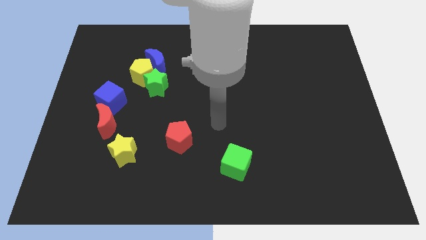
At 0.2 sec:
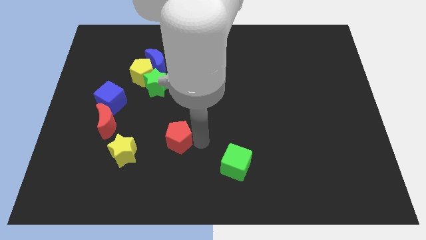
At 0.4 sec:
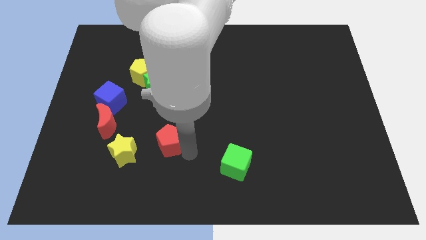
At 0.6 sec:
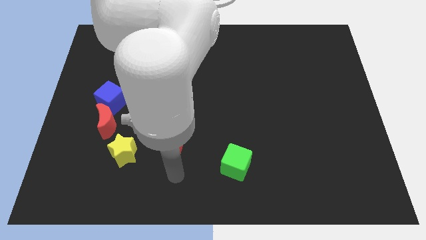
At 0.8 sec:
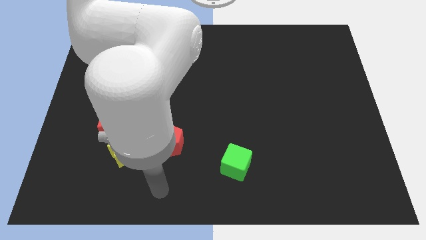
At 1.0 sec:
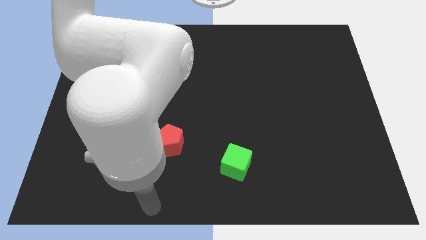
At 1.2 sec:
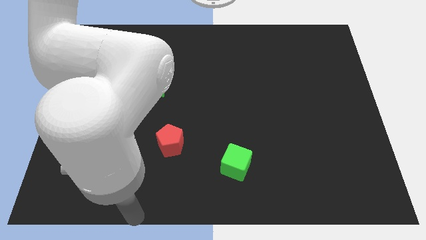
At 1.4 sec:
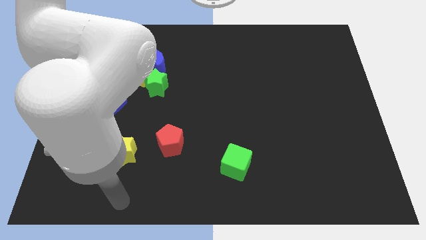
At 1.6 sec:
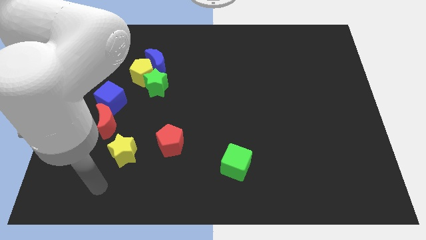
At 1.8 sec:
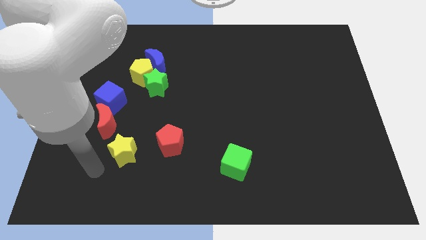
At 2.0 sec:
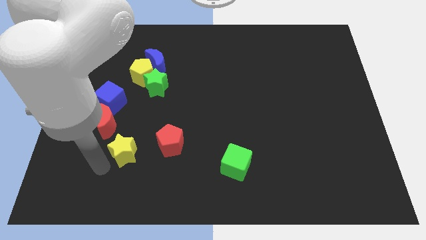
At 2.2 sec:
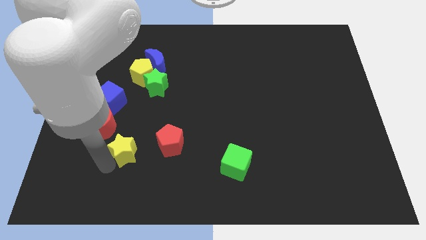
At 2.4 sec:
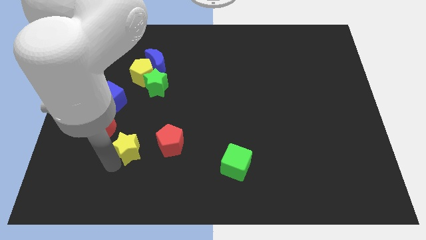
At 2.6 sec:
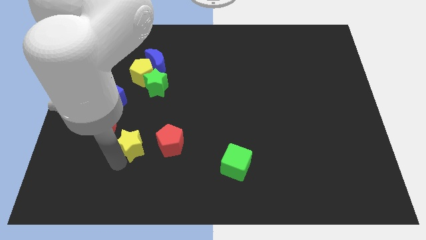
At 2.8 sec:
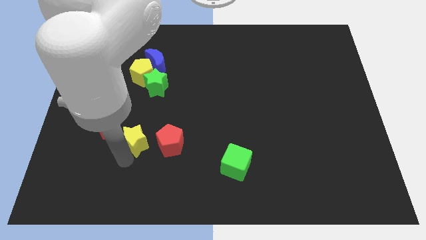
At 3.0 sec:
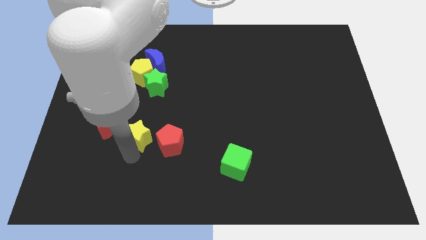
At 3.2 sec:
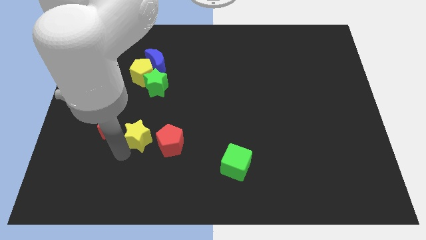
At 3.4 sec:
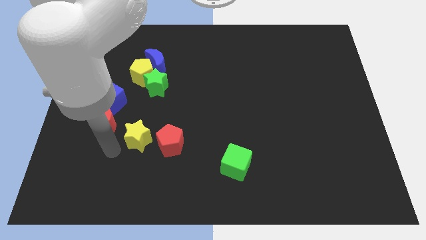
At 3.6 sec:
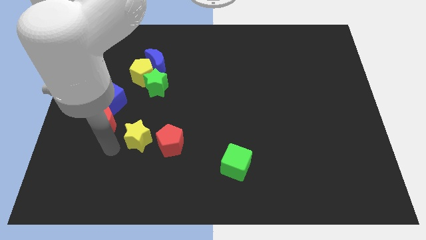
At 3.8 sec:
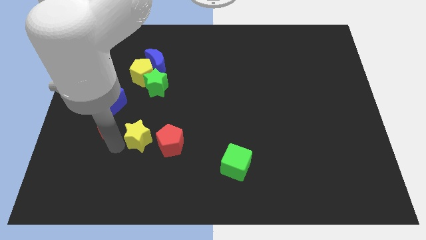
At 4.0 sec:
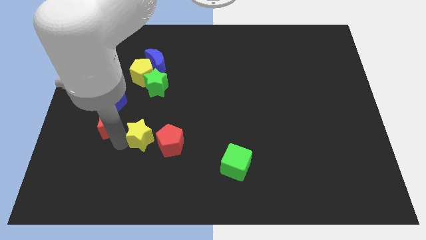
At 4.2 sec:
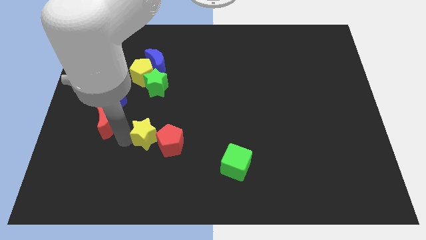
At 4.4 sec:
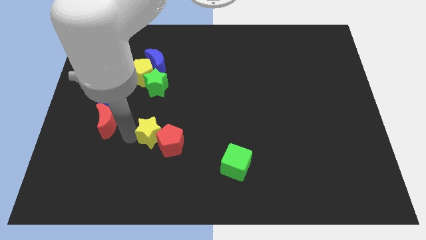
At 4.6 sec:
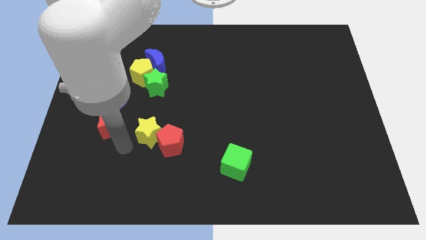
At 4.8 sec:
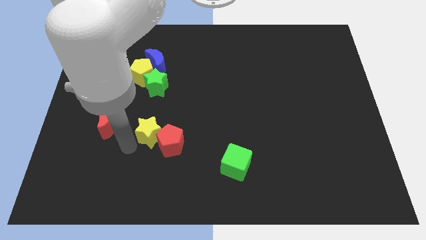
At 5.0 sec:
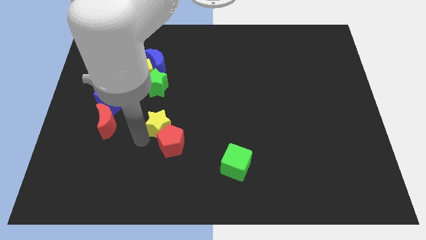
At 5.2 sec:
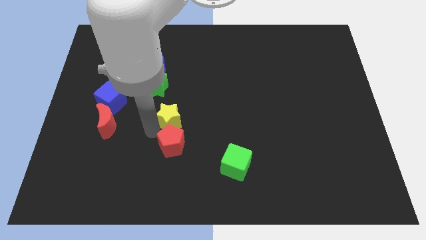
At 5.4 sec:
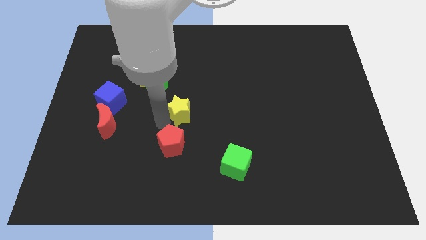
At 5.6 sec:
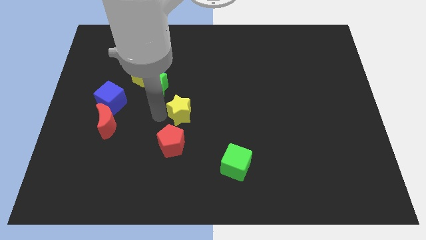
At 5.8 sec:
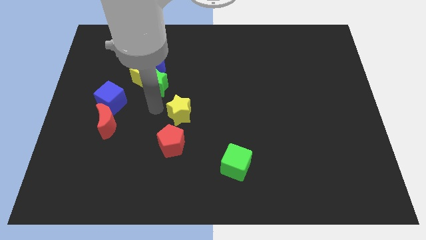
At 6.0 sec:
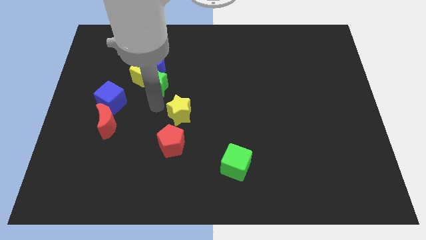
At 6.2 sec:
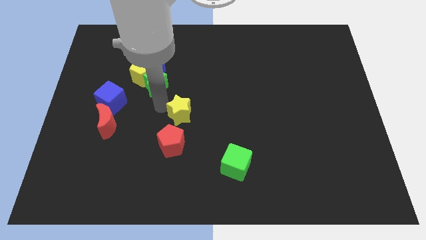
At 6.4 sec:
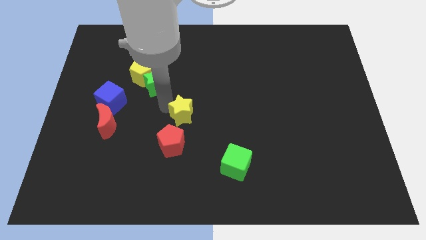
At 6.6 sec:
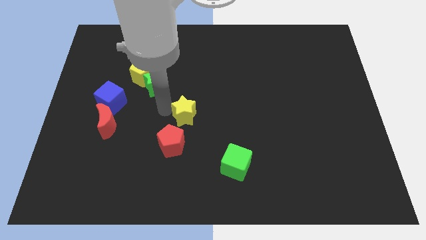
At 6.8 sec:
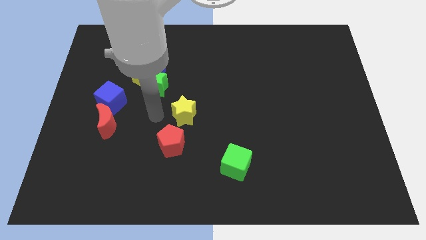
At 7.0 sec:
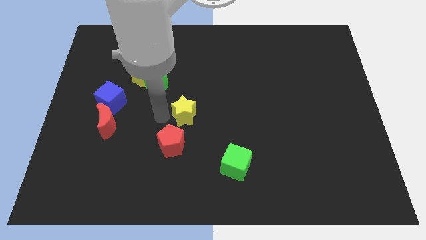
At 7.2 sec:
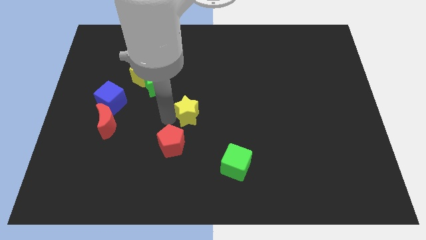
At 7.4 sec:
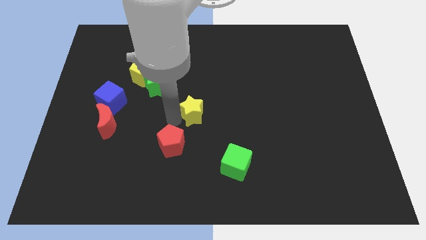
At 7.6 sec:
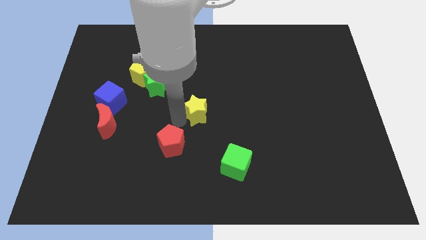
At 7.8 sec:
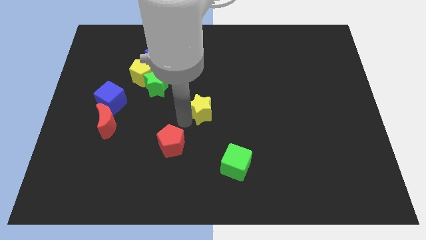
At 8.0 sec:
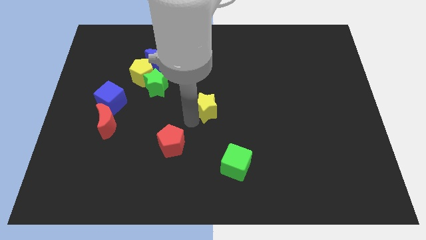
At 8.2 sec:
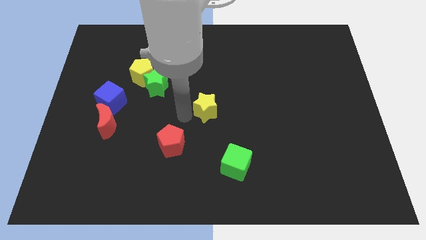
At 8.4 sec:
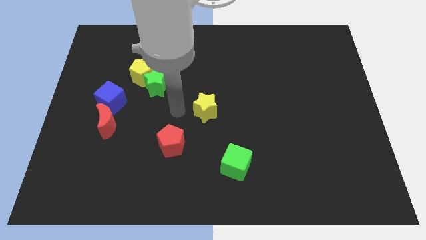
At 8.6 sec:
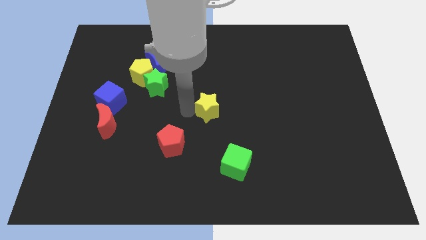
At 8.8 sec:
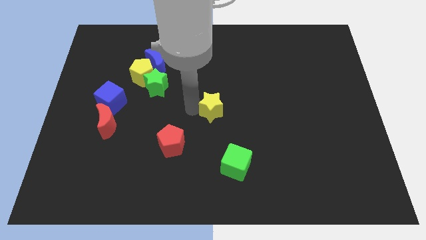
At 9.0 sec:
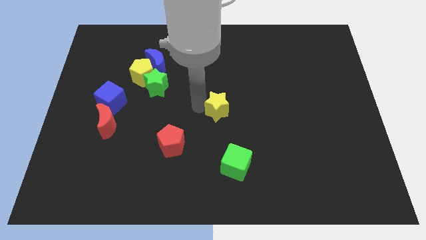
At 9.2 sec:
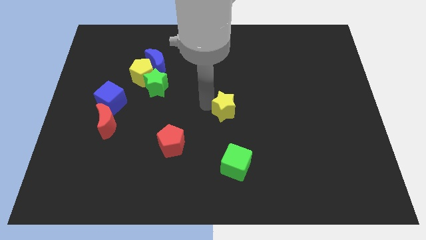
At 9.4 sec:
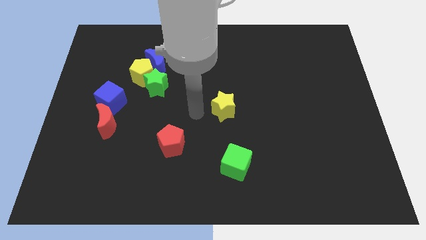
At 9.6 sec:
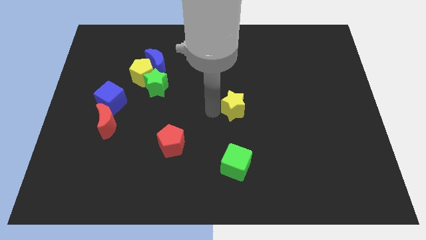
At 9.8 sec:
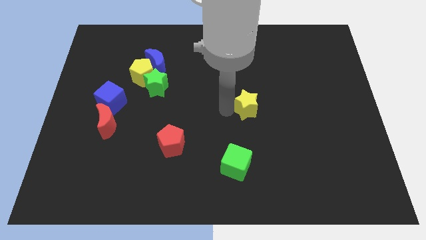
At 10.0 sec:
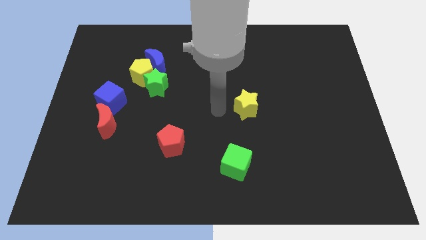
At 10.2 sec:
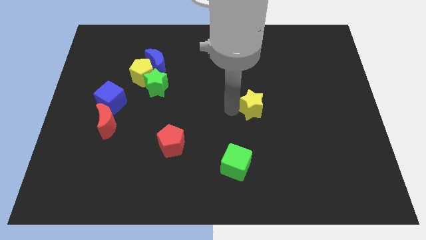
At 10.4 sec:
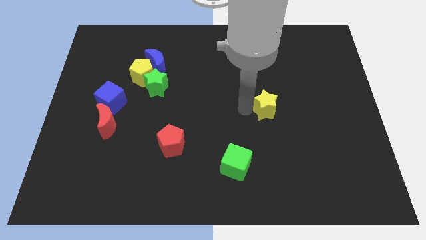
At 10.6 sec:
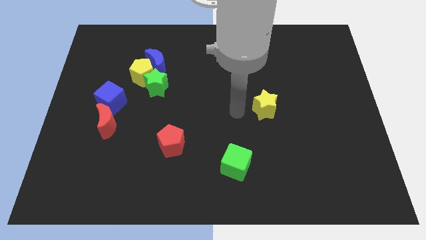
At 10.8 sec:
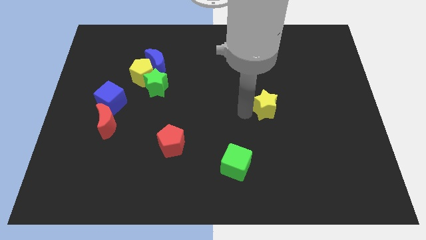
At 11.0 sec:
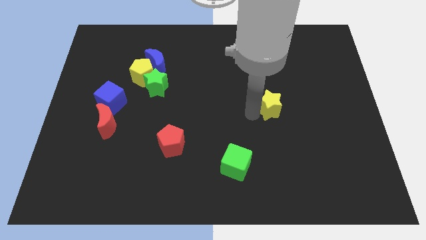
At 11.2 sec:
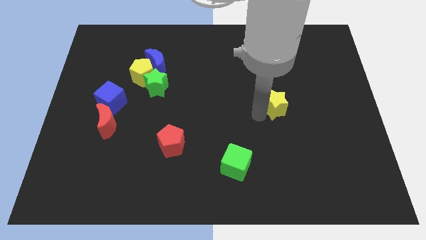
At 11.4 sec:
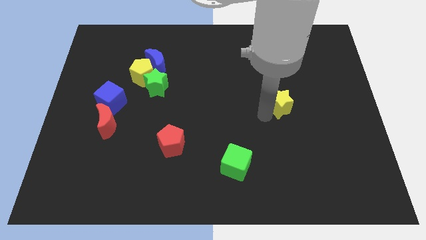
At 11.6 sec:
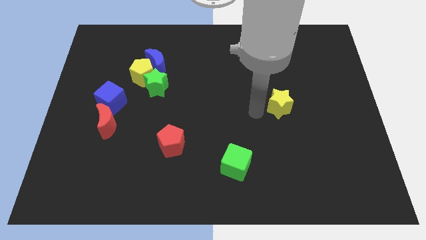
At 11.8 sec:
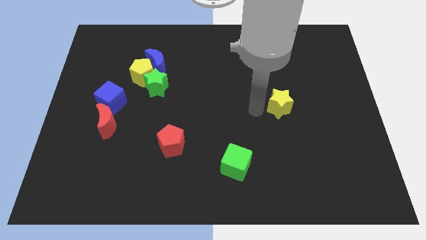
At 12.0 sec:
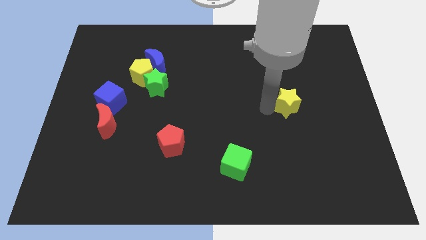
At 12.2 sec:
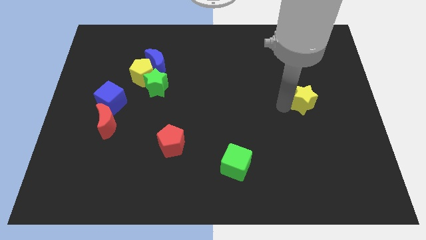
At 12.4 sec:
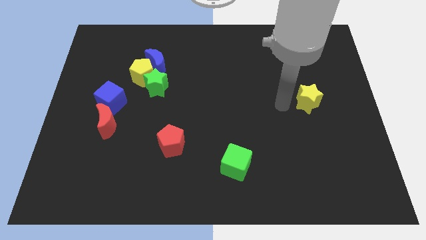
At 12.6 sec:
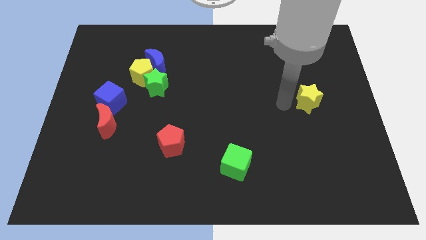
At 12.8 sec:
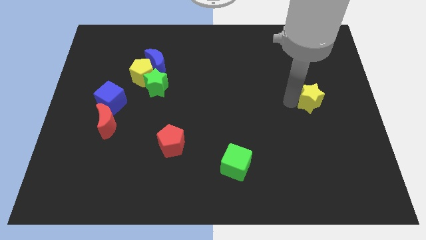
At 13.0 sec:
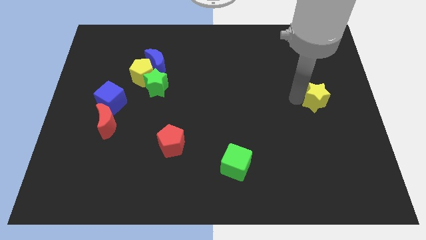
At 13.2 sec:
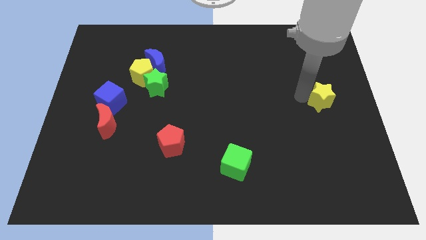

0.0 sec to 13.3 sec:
move the yellow star to the right side

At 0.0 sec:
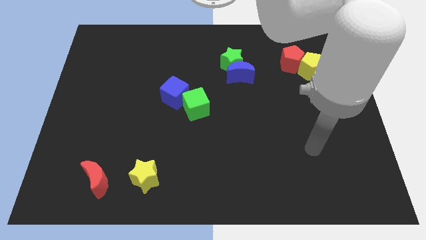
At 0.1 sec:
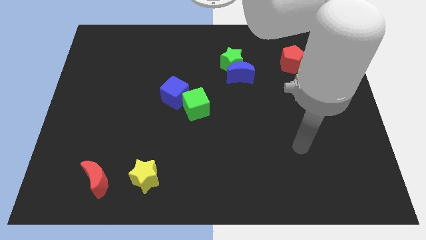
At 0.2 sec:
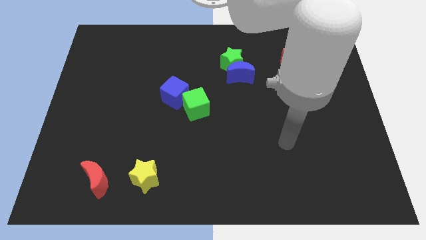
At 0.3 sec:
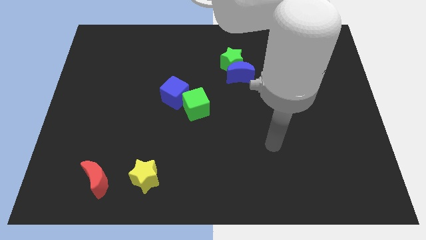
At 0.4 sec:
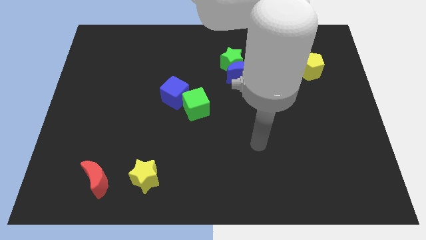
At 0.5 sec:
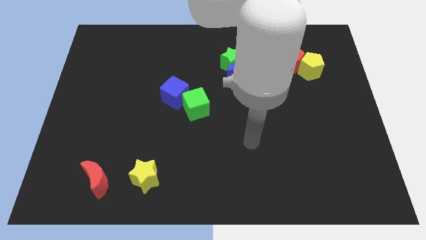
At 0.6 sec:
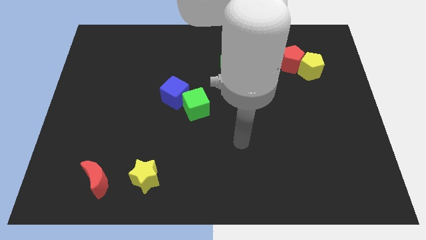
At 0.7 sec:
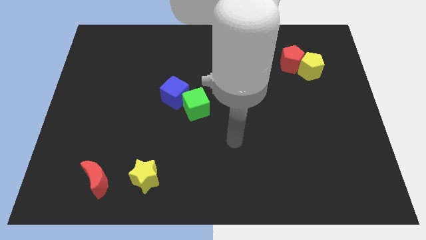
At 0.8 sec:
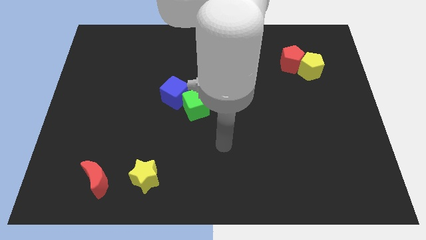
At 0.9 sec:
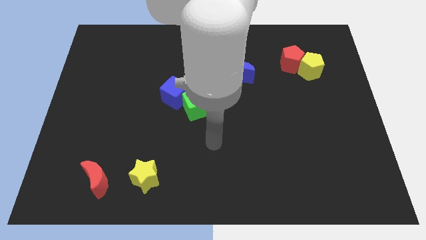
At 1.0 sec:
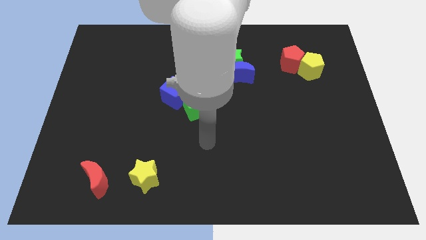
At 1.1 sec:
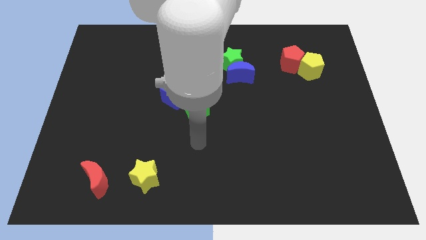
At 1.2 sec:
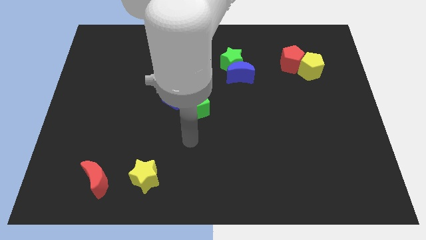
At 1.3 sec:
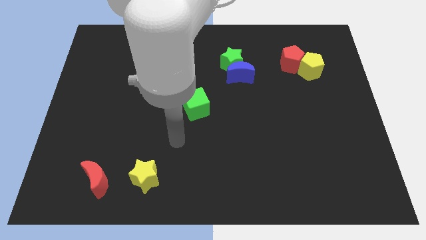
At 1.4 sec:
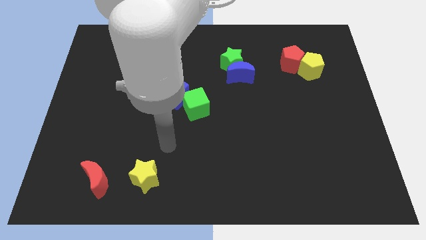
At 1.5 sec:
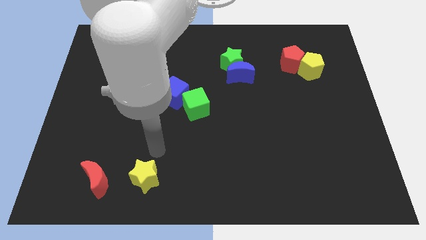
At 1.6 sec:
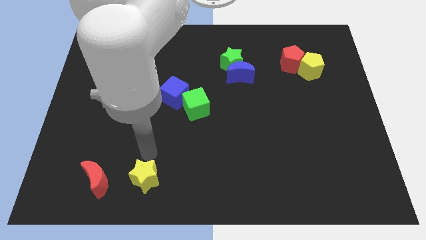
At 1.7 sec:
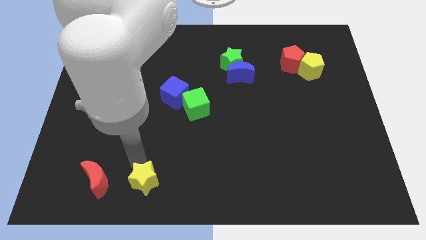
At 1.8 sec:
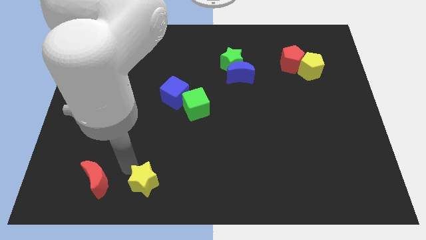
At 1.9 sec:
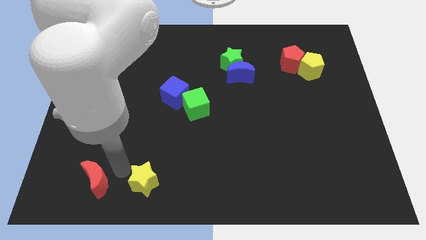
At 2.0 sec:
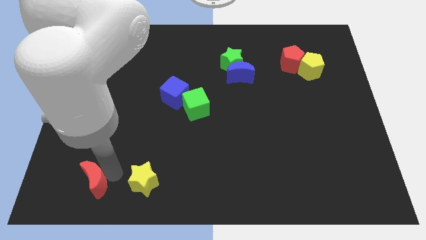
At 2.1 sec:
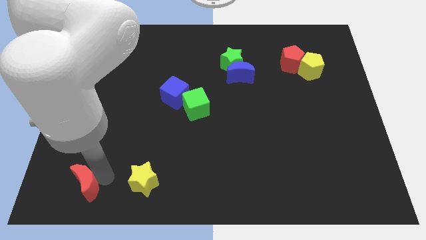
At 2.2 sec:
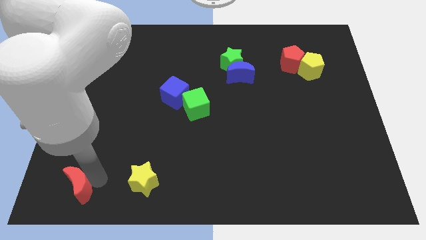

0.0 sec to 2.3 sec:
move the red moon to the bottom left corner
